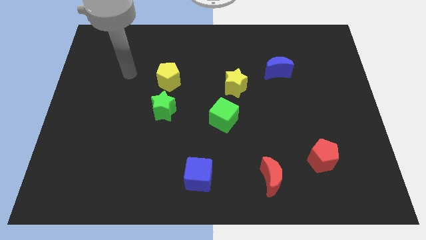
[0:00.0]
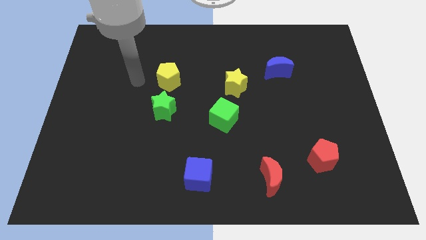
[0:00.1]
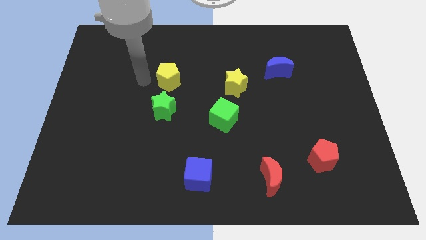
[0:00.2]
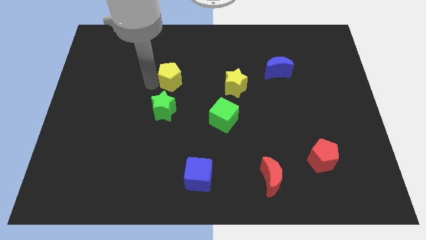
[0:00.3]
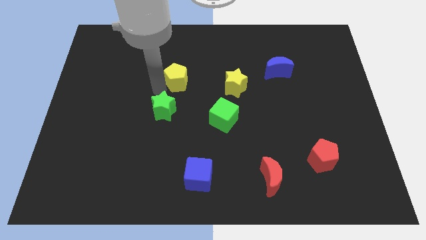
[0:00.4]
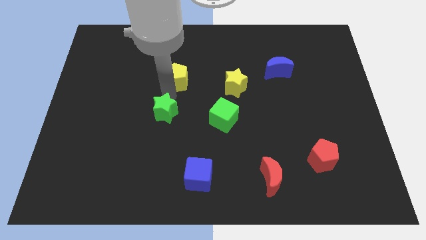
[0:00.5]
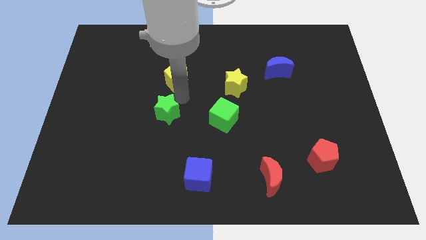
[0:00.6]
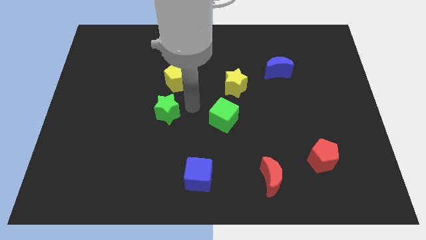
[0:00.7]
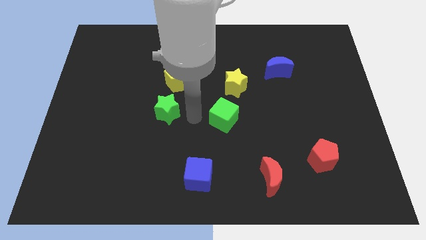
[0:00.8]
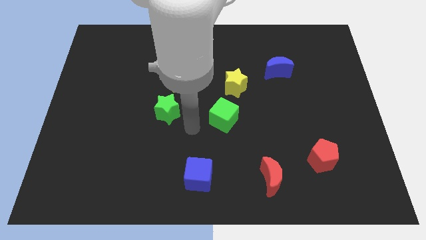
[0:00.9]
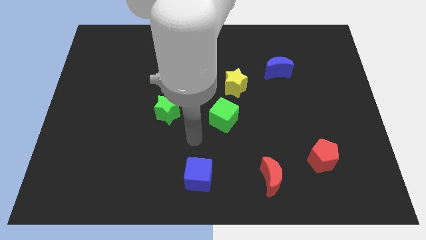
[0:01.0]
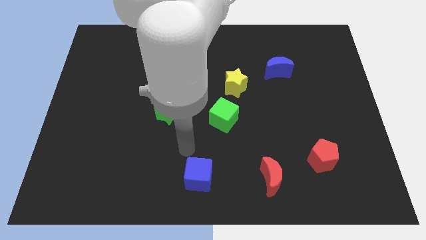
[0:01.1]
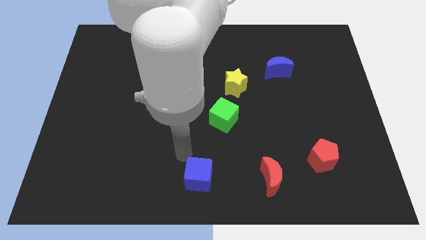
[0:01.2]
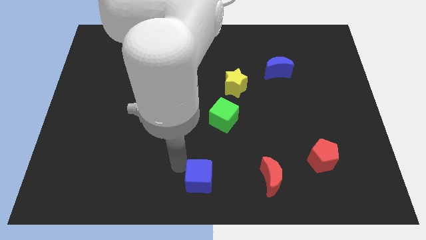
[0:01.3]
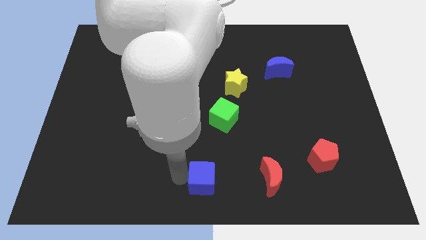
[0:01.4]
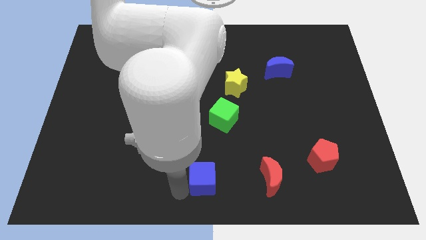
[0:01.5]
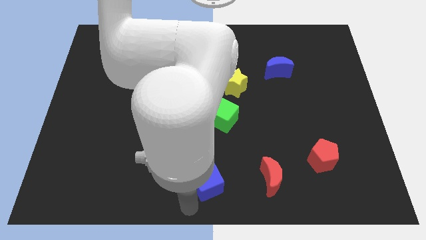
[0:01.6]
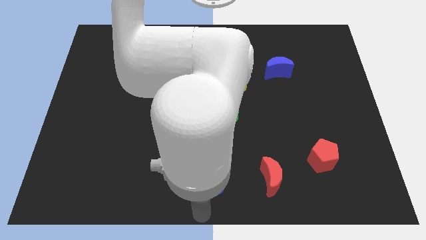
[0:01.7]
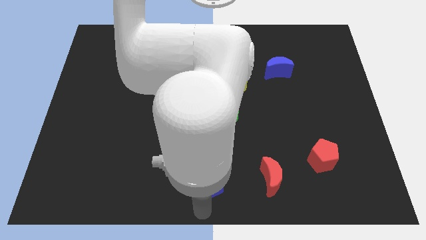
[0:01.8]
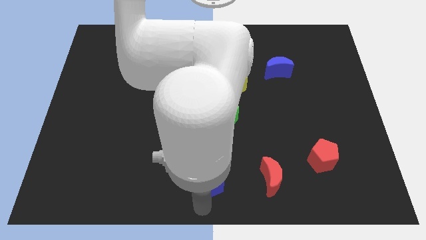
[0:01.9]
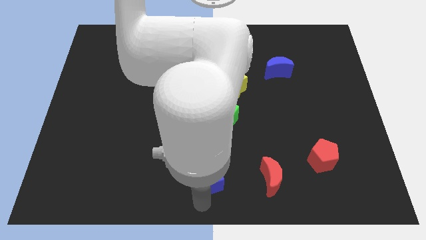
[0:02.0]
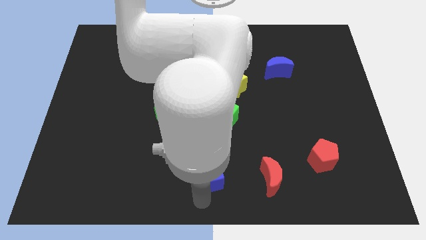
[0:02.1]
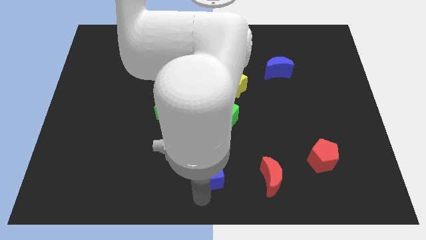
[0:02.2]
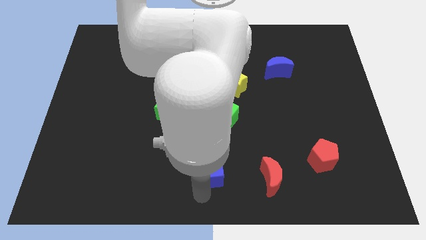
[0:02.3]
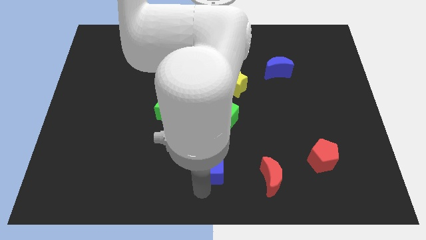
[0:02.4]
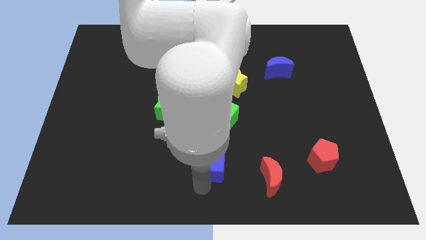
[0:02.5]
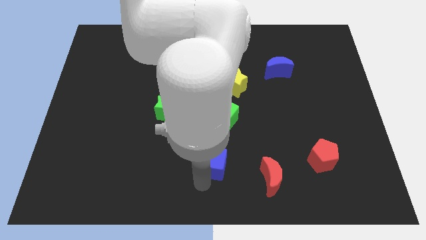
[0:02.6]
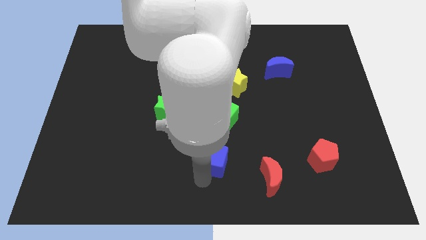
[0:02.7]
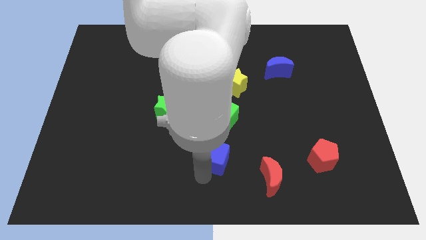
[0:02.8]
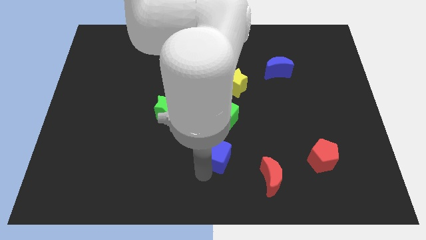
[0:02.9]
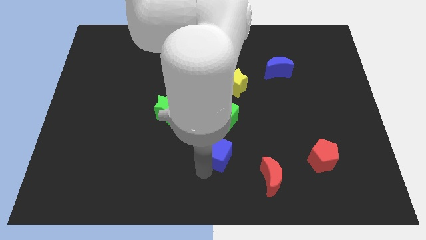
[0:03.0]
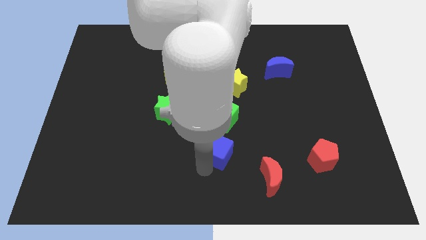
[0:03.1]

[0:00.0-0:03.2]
slightly slide the blue cube upwards and right

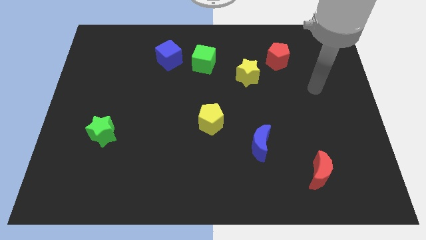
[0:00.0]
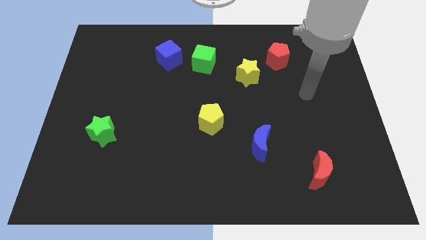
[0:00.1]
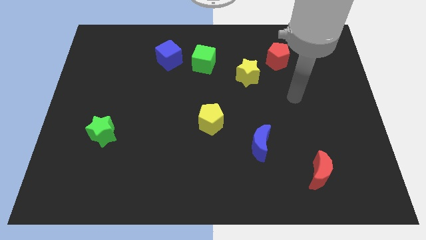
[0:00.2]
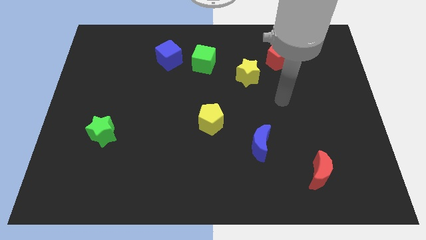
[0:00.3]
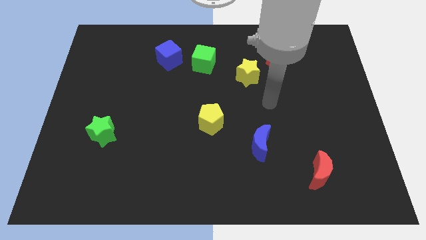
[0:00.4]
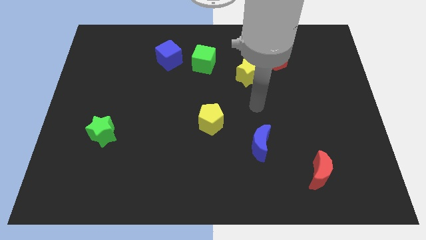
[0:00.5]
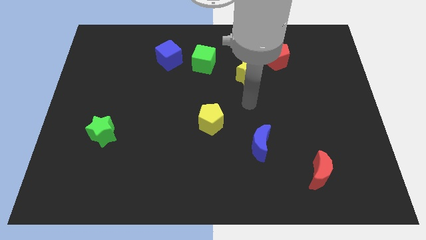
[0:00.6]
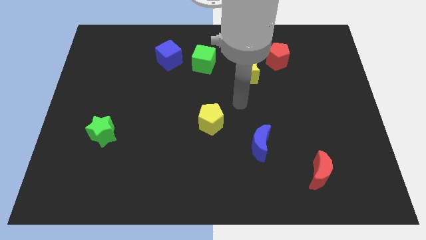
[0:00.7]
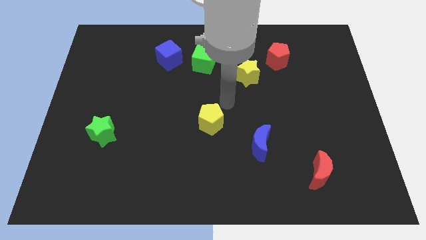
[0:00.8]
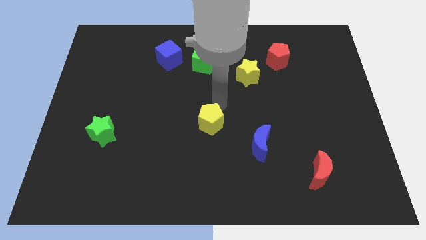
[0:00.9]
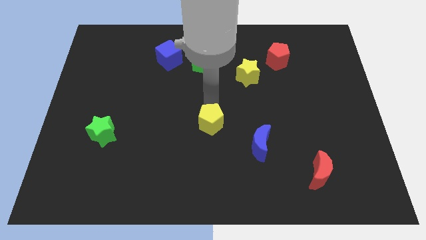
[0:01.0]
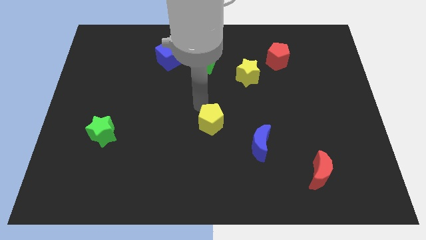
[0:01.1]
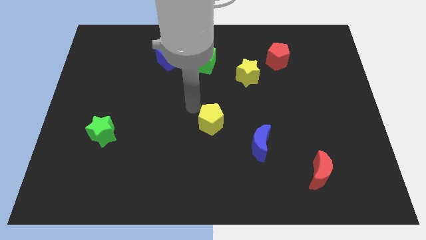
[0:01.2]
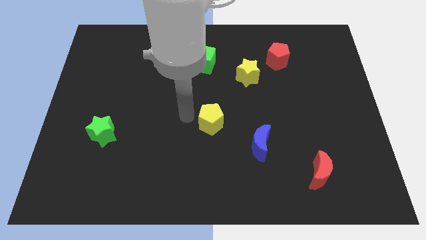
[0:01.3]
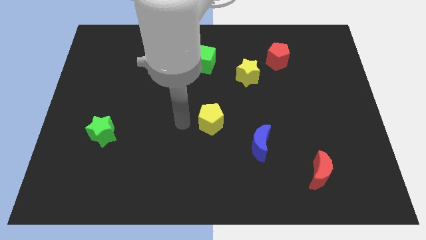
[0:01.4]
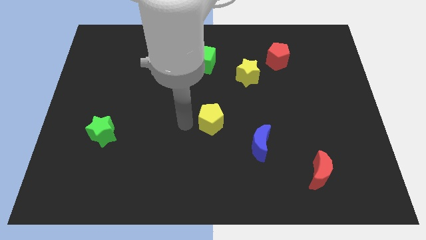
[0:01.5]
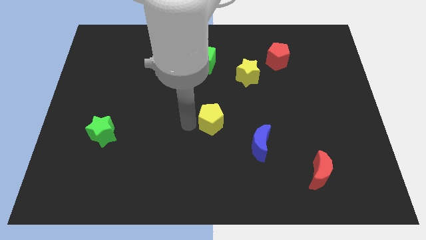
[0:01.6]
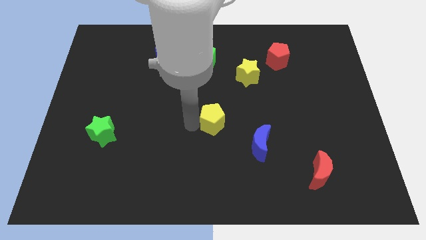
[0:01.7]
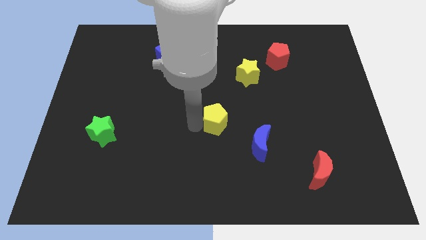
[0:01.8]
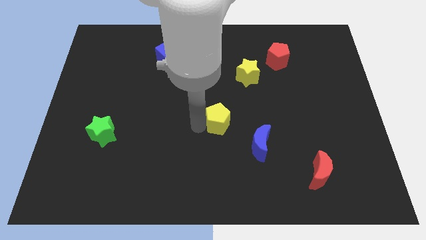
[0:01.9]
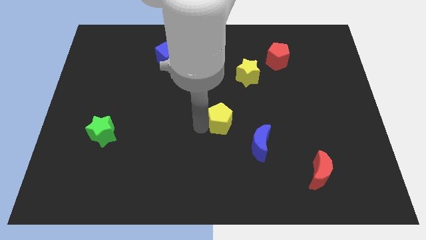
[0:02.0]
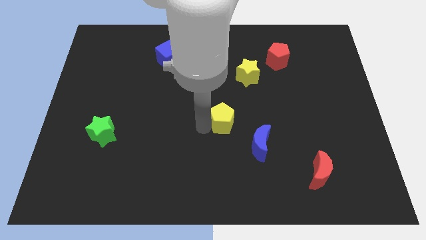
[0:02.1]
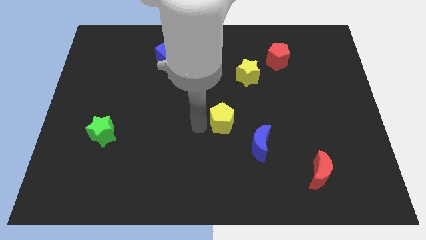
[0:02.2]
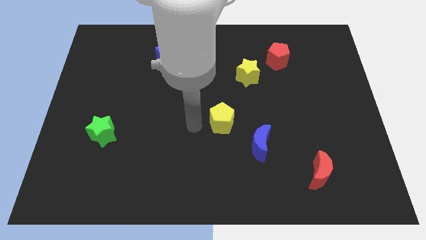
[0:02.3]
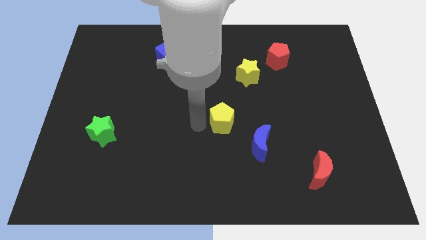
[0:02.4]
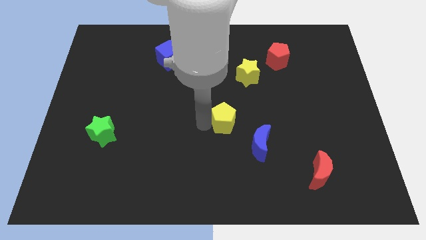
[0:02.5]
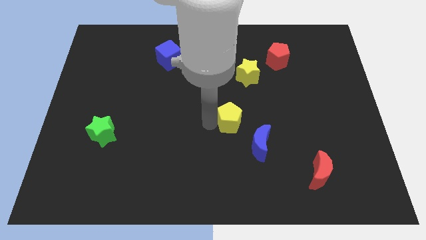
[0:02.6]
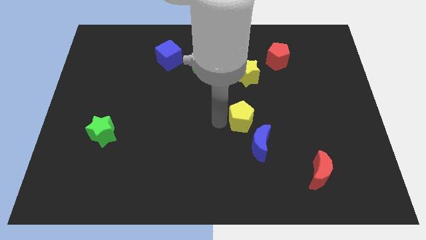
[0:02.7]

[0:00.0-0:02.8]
push the yellow pentagon a bit to the right

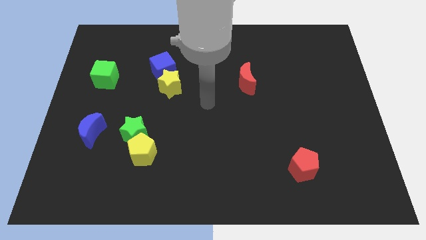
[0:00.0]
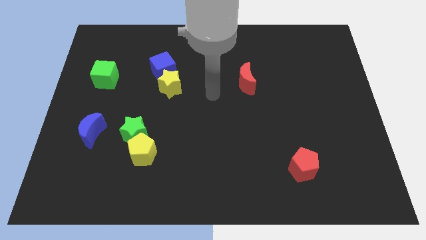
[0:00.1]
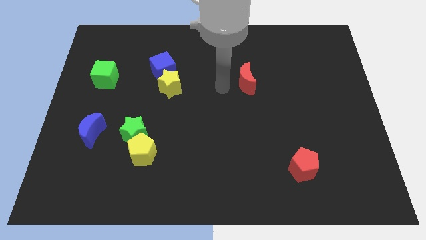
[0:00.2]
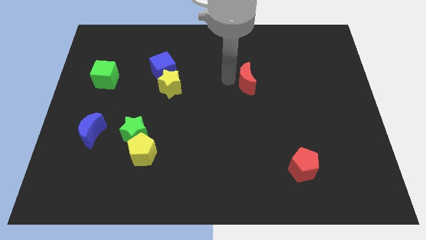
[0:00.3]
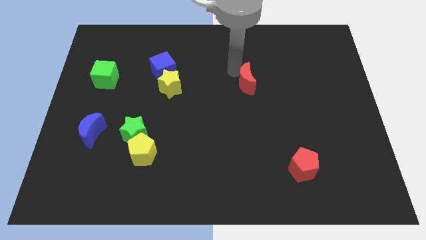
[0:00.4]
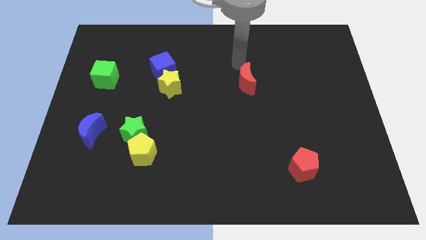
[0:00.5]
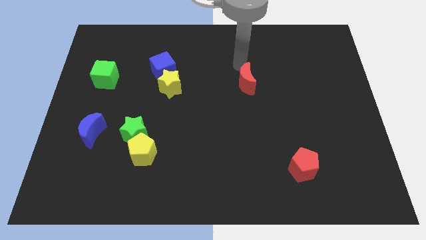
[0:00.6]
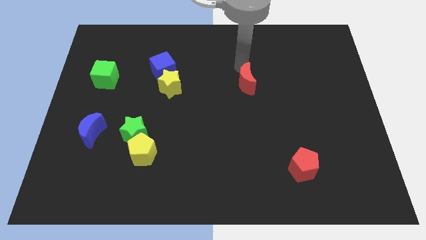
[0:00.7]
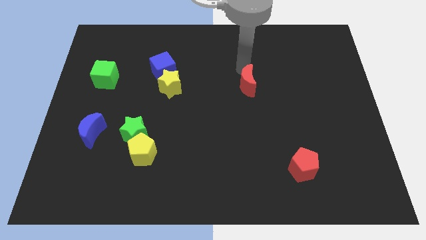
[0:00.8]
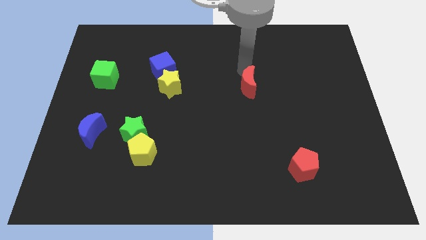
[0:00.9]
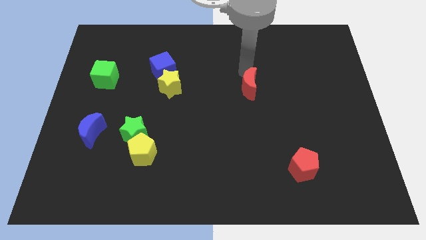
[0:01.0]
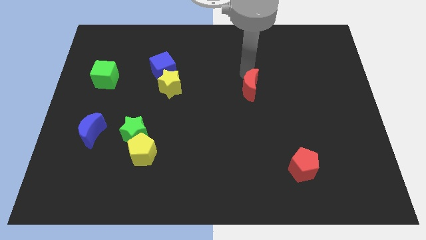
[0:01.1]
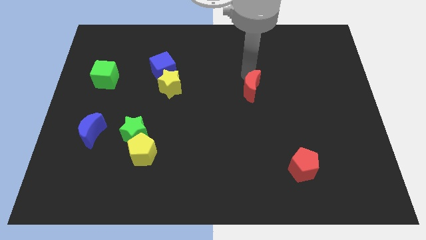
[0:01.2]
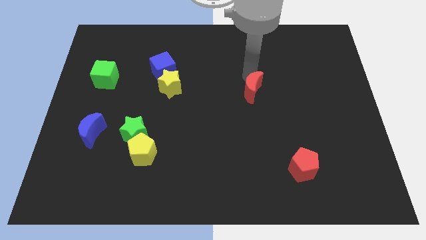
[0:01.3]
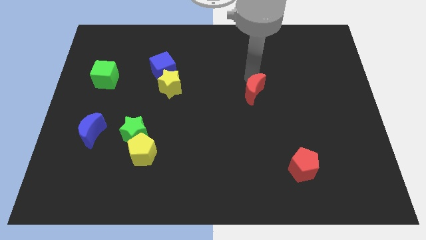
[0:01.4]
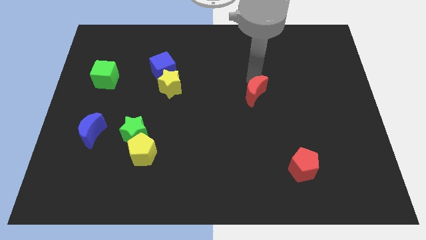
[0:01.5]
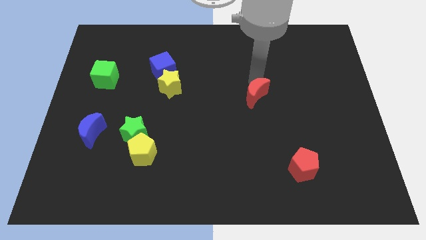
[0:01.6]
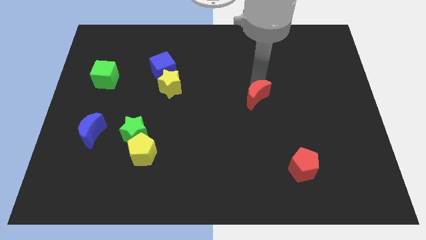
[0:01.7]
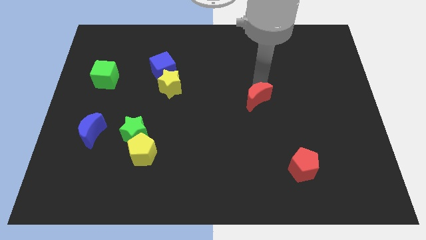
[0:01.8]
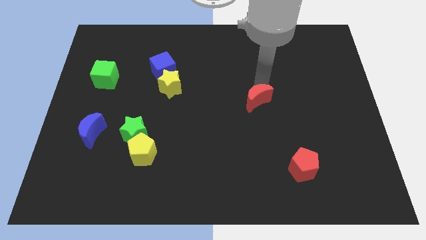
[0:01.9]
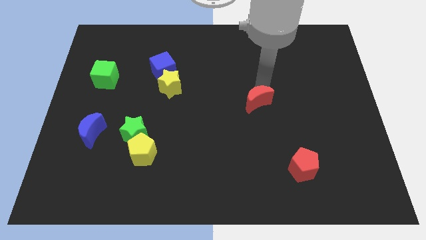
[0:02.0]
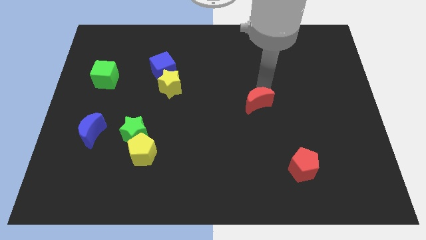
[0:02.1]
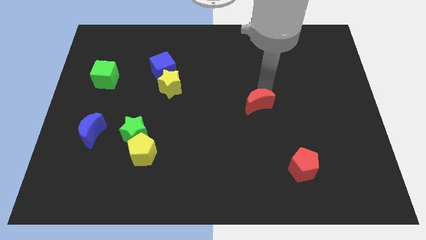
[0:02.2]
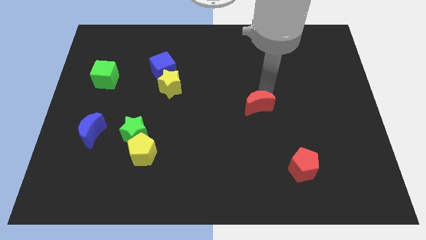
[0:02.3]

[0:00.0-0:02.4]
push the red moon down slightly
